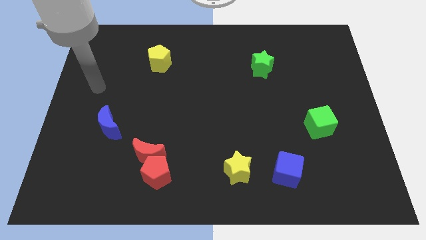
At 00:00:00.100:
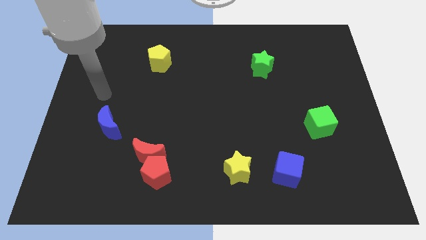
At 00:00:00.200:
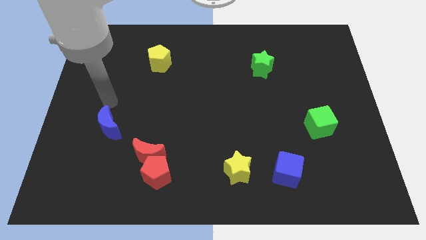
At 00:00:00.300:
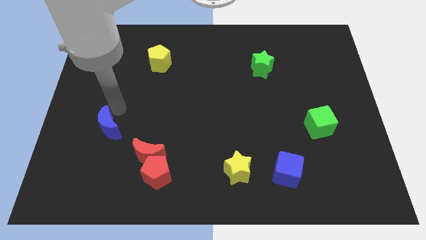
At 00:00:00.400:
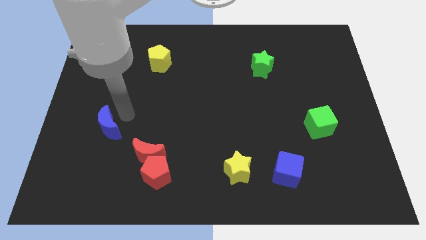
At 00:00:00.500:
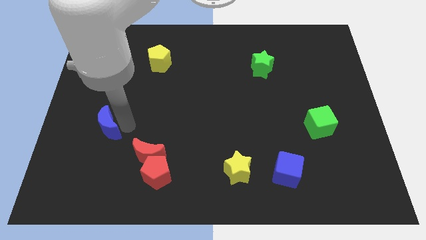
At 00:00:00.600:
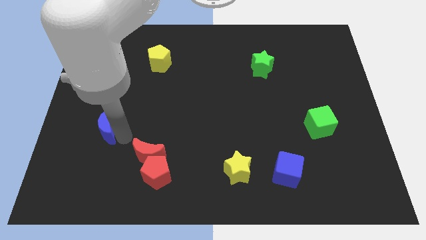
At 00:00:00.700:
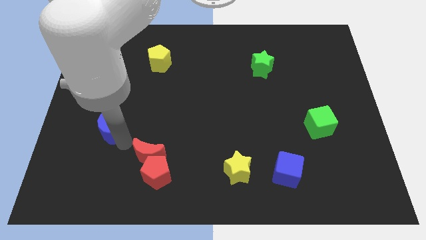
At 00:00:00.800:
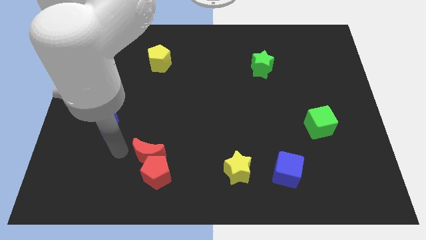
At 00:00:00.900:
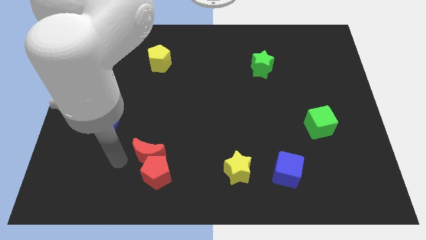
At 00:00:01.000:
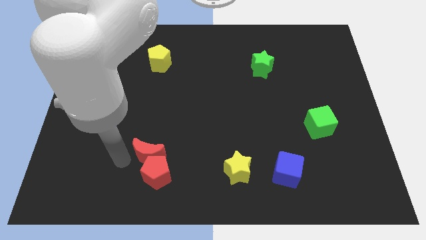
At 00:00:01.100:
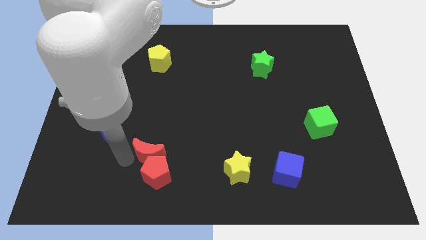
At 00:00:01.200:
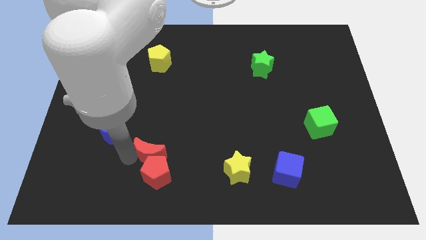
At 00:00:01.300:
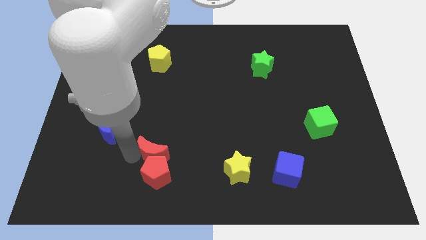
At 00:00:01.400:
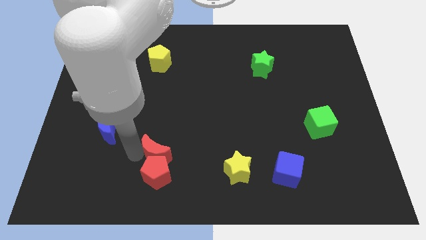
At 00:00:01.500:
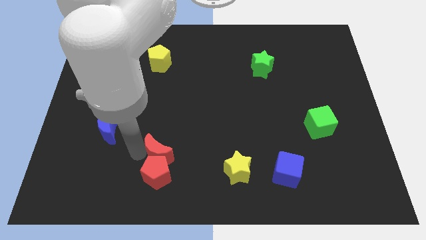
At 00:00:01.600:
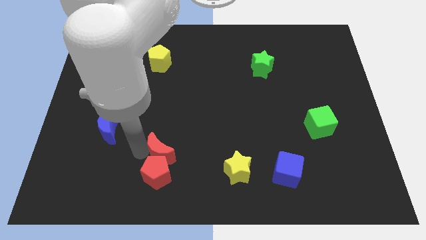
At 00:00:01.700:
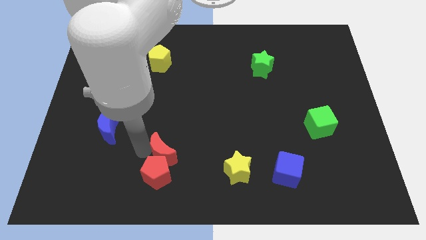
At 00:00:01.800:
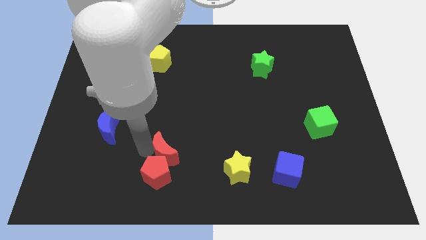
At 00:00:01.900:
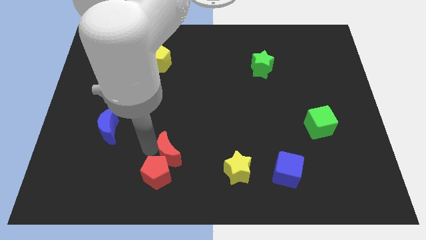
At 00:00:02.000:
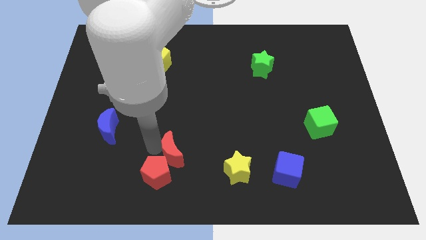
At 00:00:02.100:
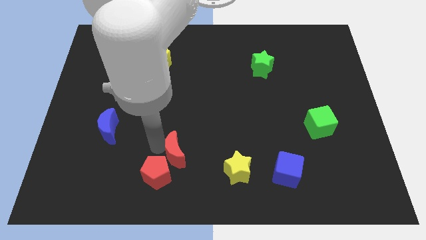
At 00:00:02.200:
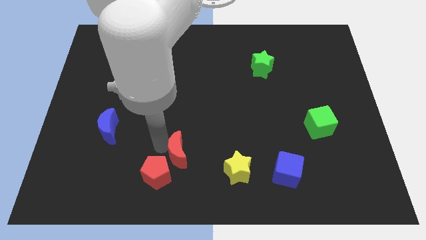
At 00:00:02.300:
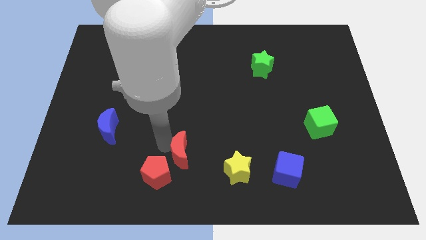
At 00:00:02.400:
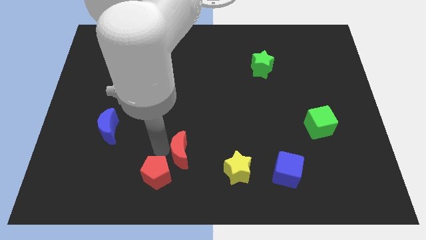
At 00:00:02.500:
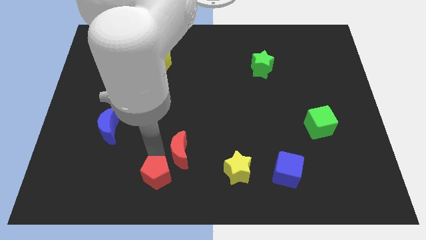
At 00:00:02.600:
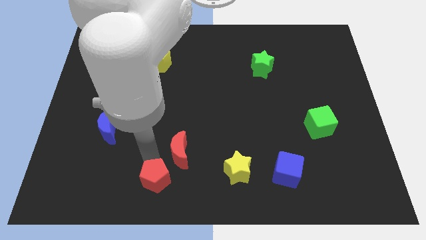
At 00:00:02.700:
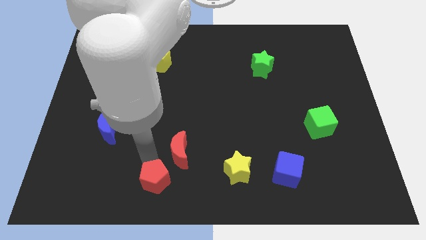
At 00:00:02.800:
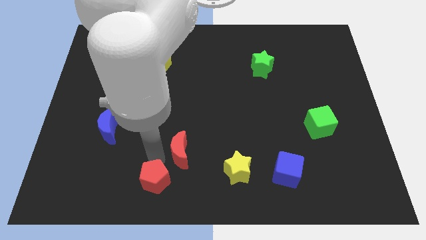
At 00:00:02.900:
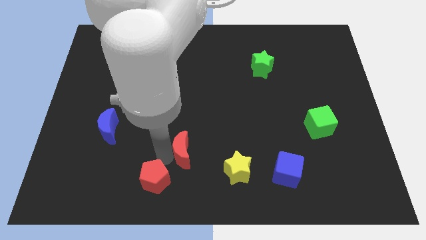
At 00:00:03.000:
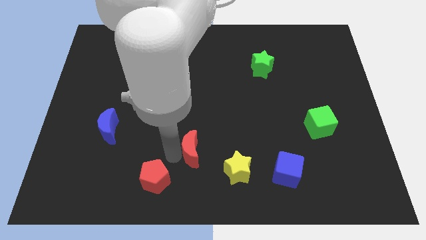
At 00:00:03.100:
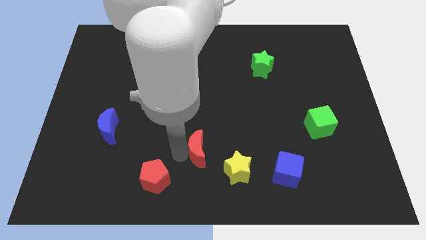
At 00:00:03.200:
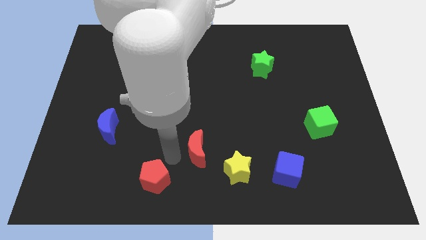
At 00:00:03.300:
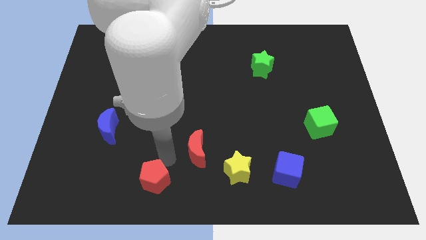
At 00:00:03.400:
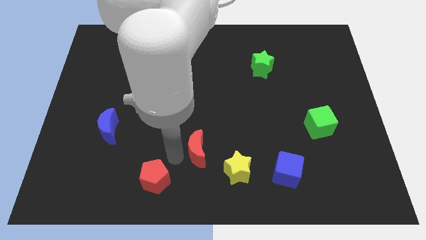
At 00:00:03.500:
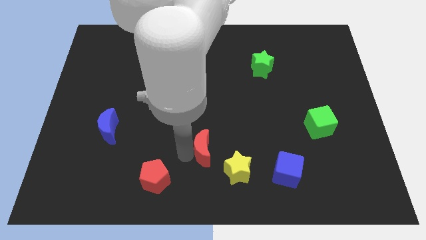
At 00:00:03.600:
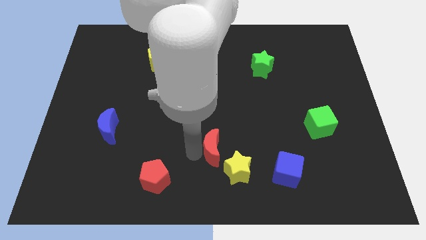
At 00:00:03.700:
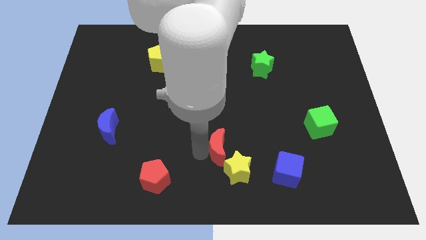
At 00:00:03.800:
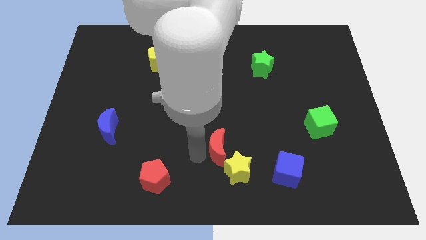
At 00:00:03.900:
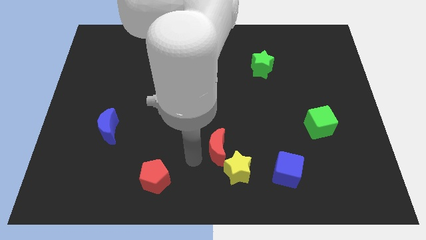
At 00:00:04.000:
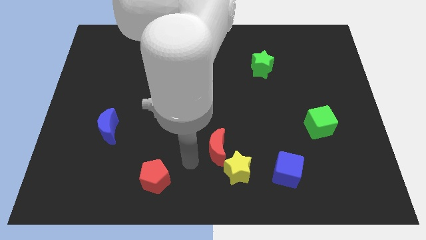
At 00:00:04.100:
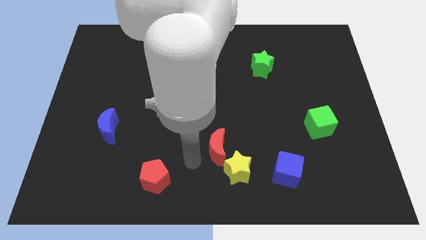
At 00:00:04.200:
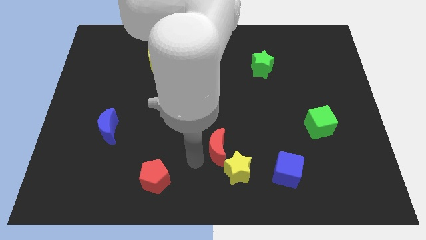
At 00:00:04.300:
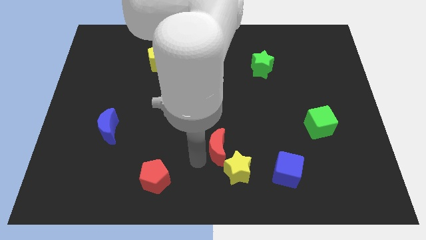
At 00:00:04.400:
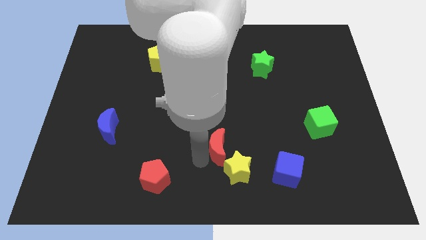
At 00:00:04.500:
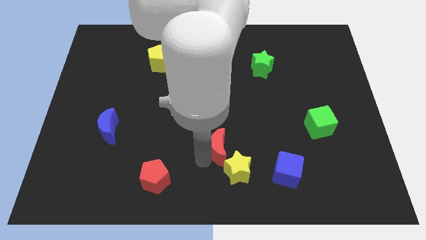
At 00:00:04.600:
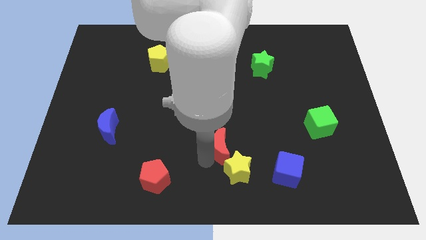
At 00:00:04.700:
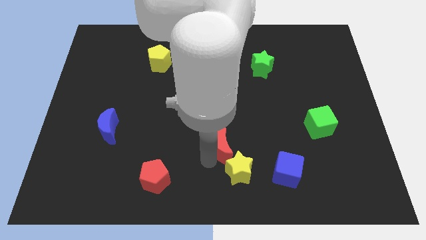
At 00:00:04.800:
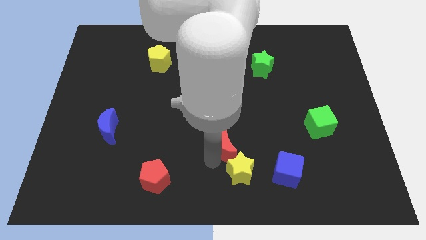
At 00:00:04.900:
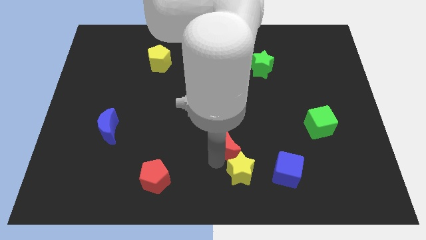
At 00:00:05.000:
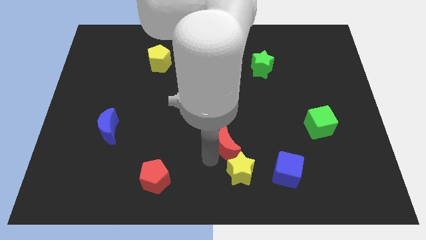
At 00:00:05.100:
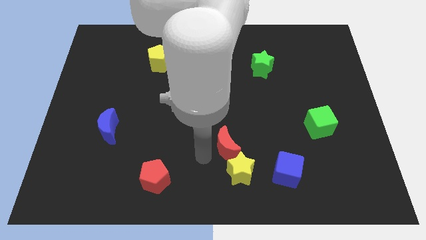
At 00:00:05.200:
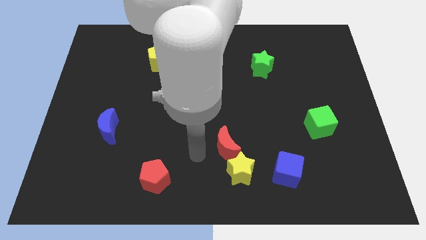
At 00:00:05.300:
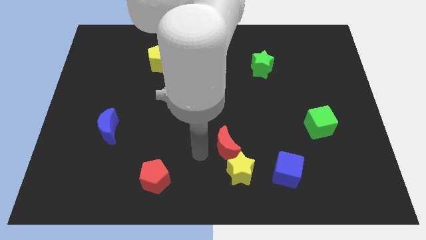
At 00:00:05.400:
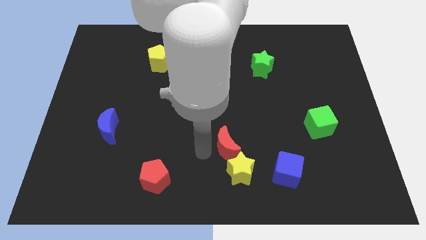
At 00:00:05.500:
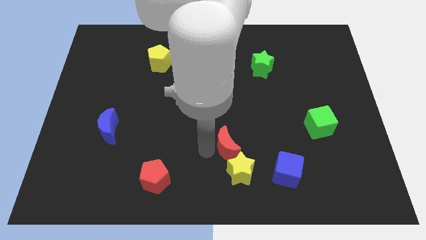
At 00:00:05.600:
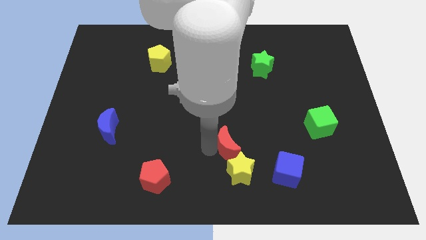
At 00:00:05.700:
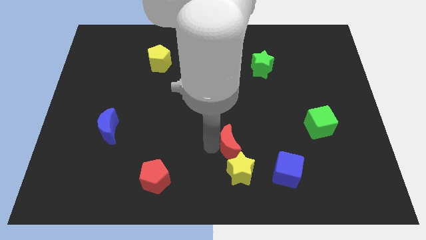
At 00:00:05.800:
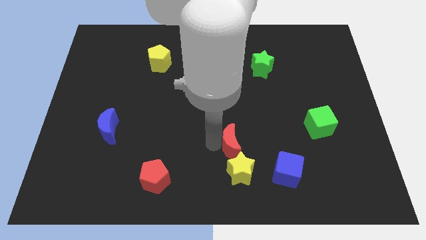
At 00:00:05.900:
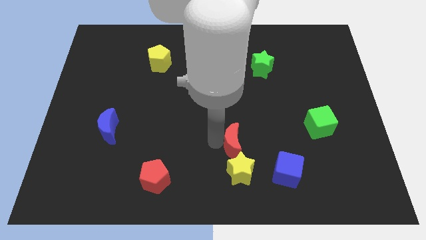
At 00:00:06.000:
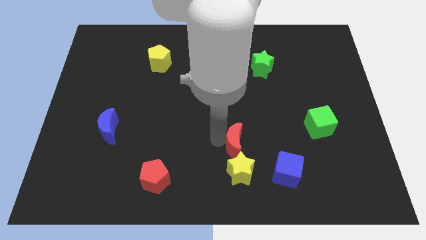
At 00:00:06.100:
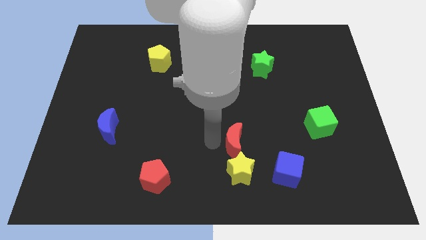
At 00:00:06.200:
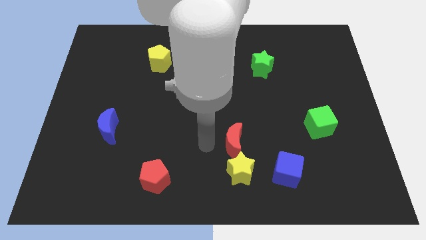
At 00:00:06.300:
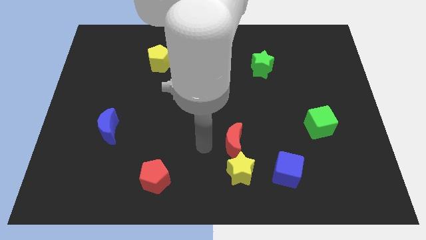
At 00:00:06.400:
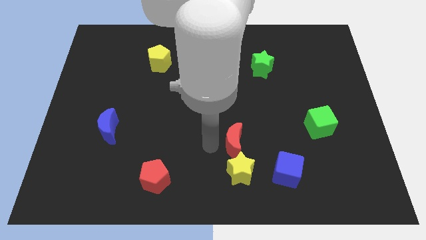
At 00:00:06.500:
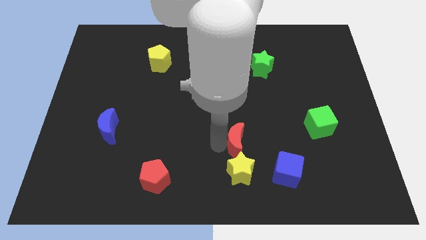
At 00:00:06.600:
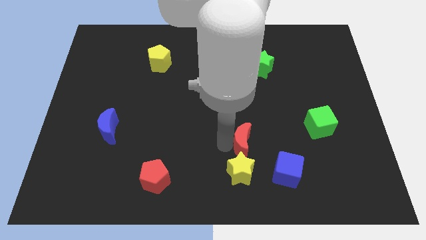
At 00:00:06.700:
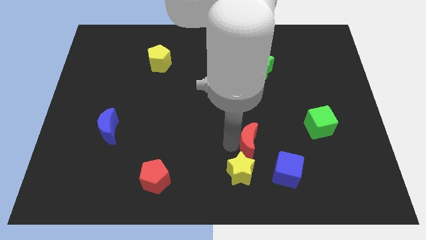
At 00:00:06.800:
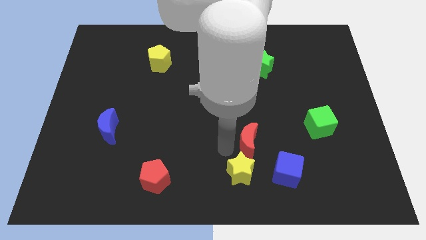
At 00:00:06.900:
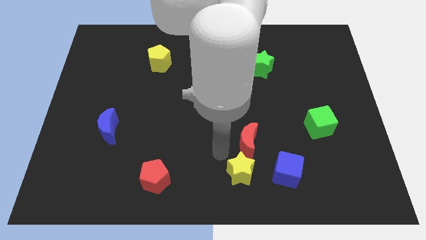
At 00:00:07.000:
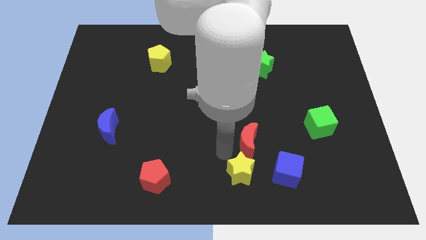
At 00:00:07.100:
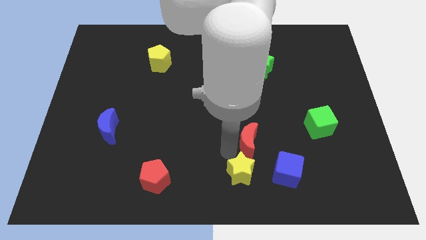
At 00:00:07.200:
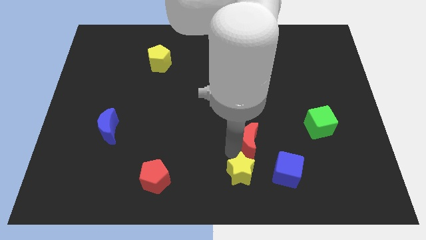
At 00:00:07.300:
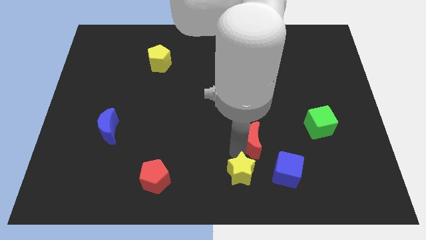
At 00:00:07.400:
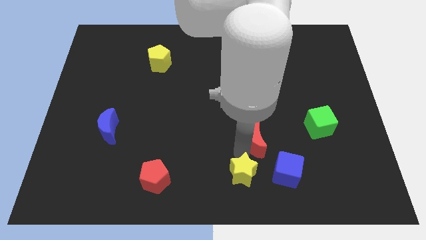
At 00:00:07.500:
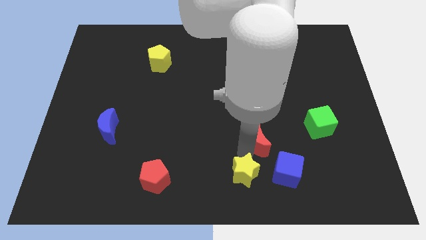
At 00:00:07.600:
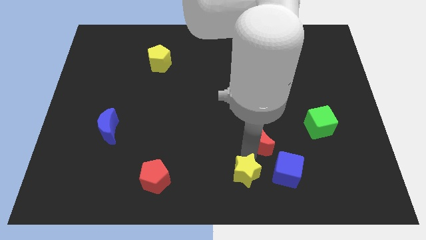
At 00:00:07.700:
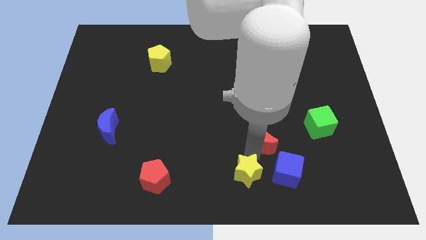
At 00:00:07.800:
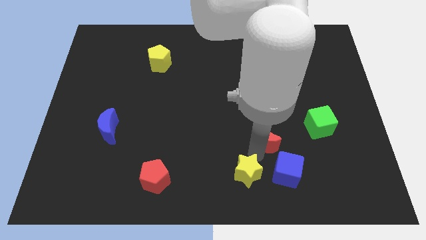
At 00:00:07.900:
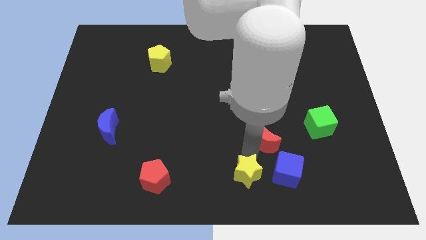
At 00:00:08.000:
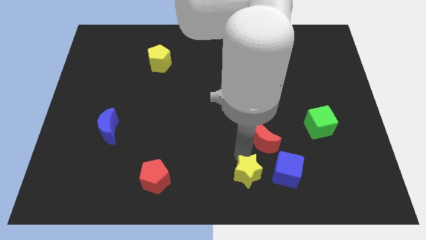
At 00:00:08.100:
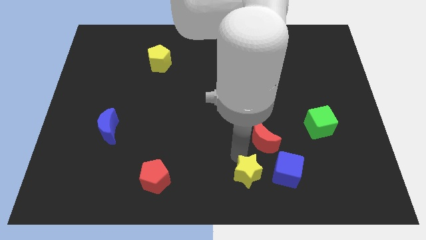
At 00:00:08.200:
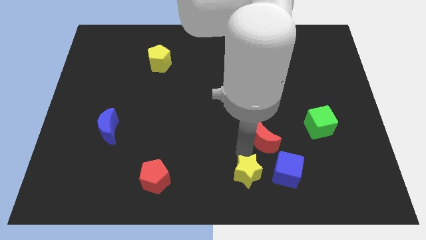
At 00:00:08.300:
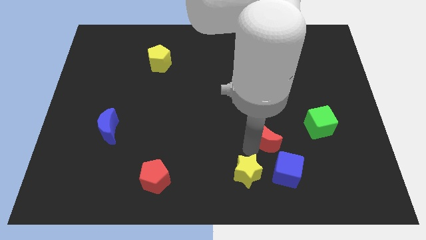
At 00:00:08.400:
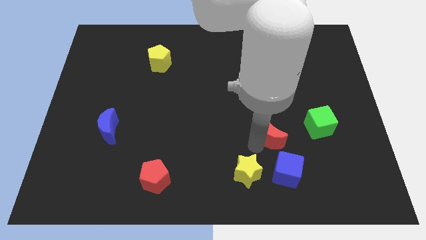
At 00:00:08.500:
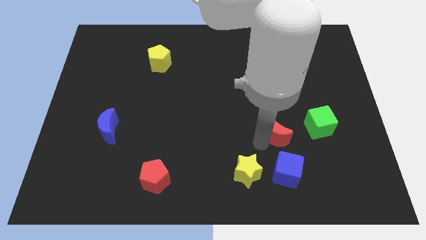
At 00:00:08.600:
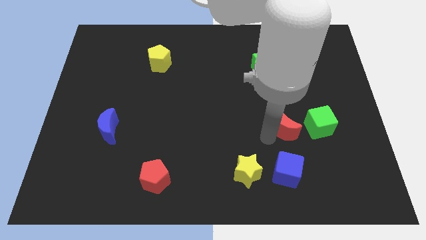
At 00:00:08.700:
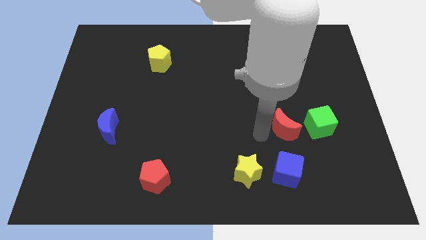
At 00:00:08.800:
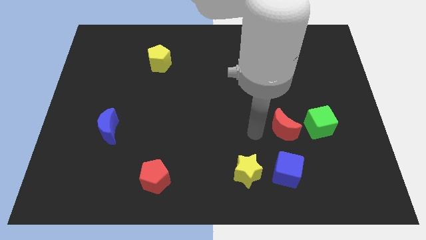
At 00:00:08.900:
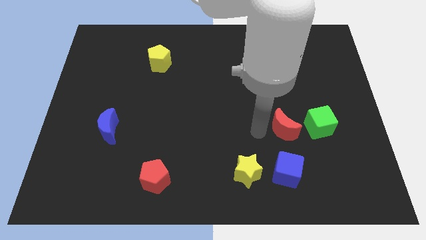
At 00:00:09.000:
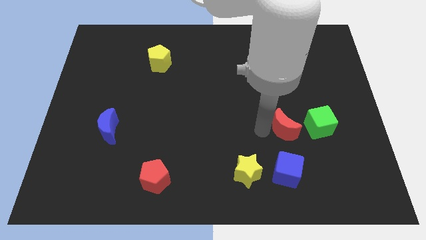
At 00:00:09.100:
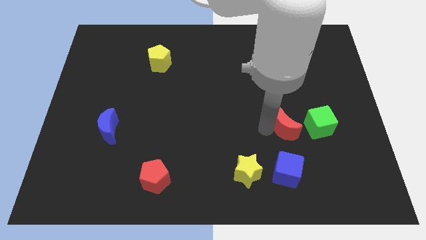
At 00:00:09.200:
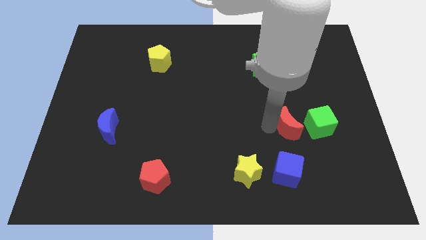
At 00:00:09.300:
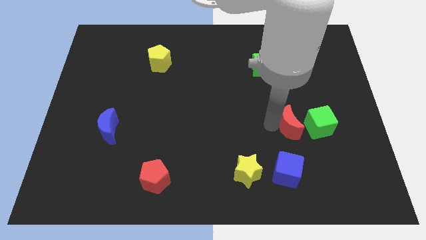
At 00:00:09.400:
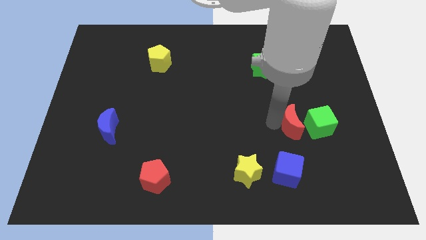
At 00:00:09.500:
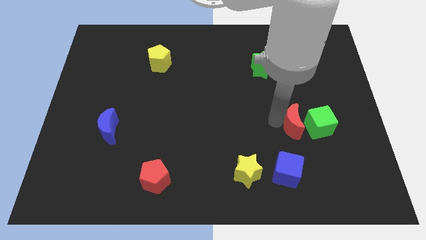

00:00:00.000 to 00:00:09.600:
push the red moon to the green cube
